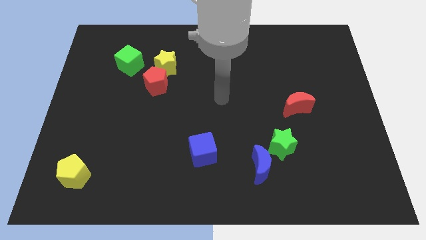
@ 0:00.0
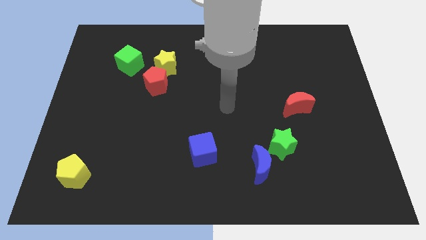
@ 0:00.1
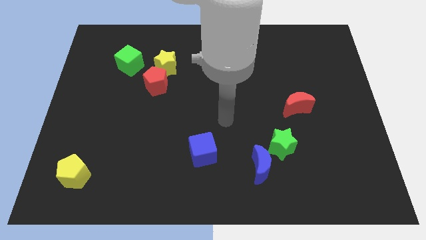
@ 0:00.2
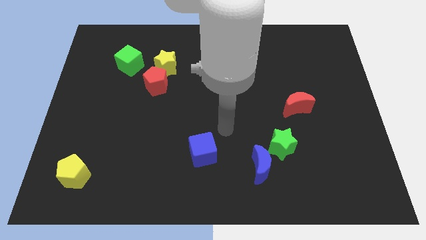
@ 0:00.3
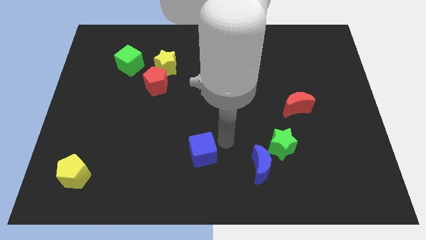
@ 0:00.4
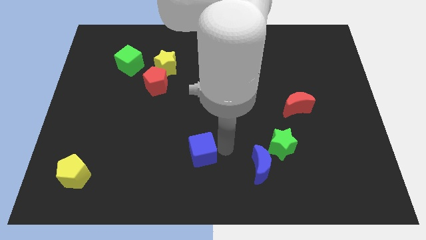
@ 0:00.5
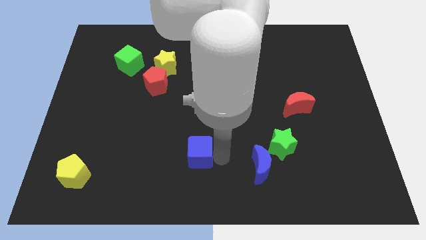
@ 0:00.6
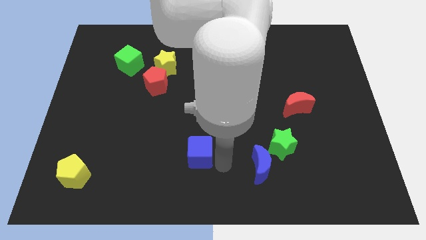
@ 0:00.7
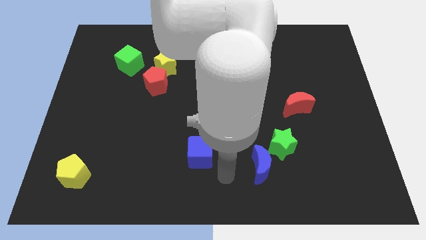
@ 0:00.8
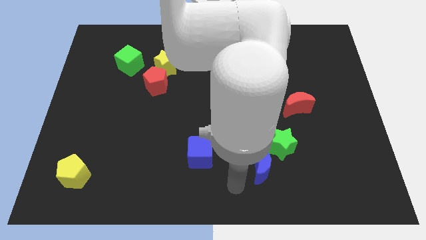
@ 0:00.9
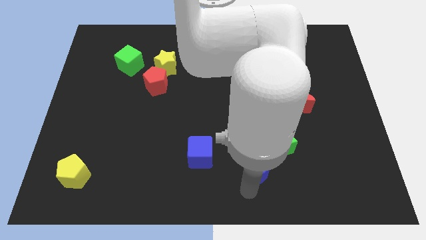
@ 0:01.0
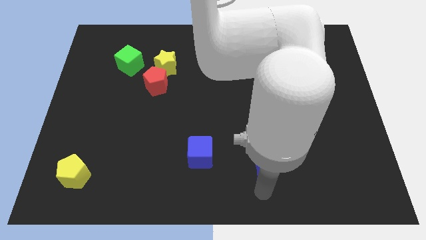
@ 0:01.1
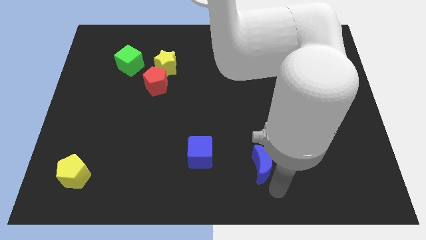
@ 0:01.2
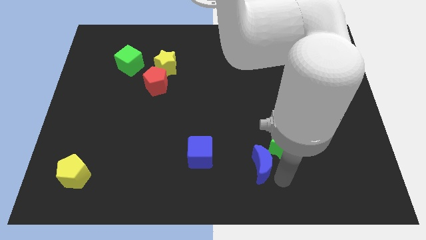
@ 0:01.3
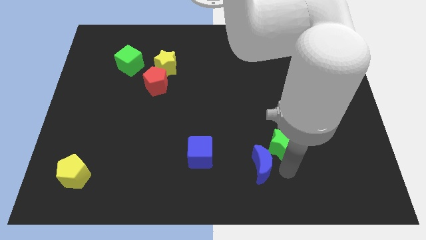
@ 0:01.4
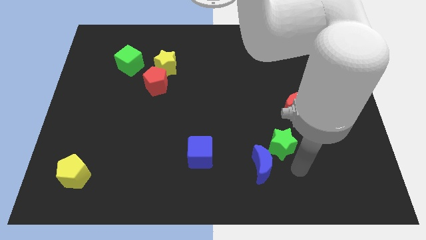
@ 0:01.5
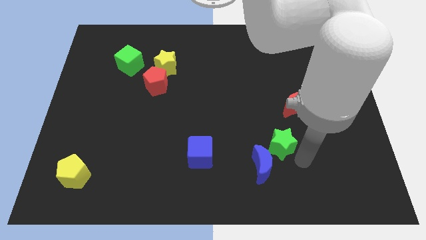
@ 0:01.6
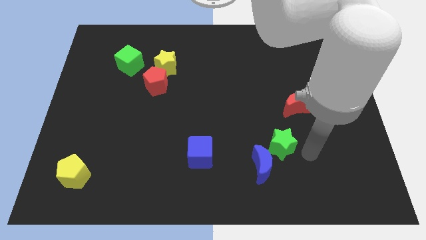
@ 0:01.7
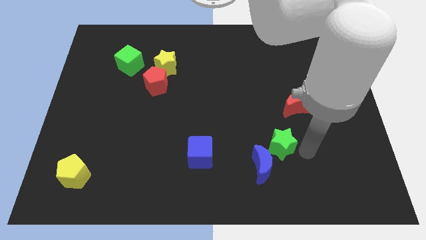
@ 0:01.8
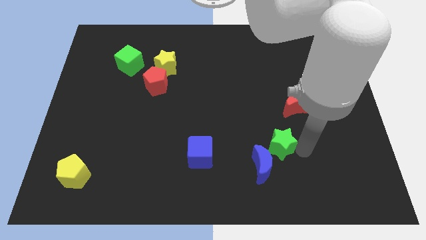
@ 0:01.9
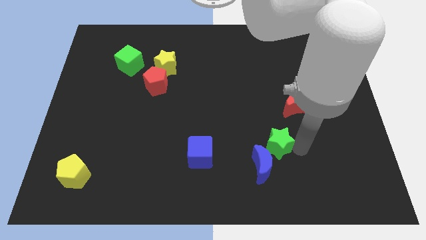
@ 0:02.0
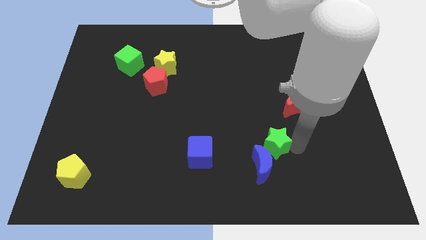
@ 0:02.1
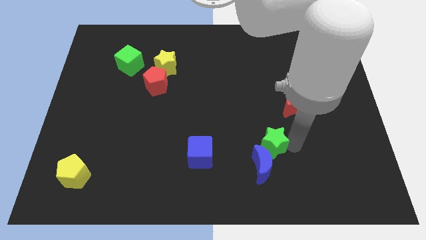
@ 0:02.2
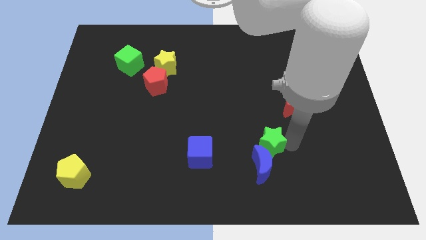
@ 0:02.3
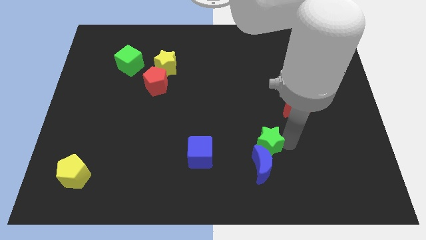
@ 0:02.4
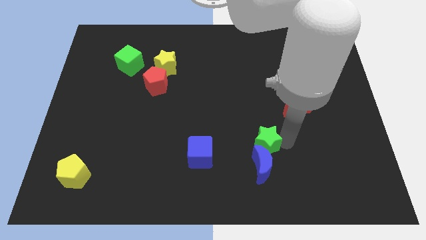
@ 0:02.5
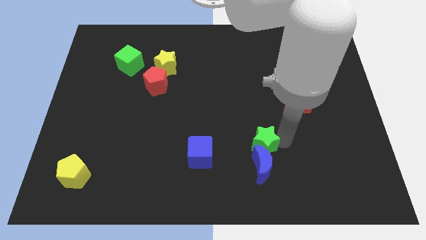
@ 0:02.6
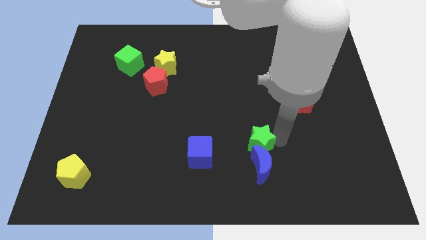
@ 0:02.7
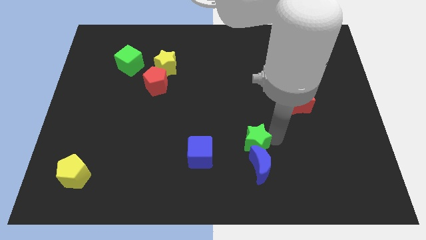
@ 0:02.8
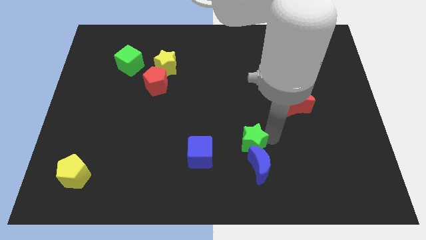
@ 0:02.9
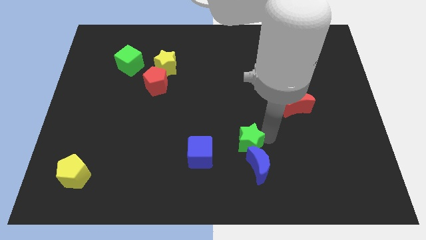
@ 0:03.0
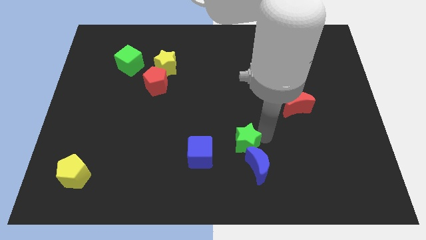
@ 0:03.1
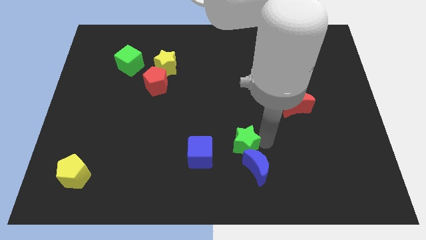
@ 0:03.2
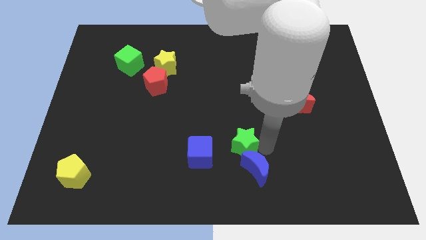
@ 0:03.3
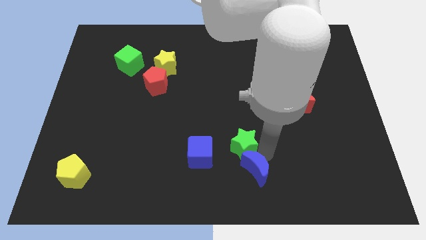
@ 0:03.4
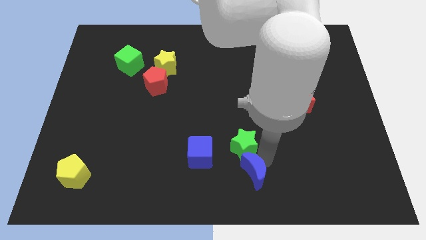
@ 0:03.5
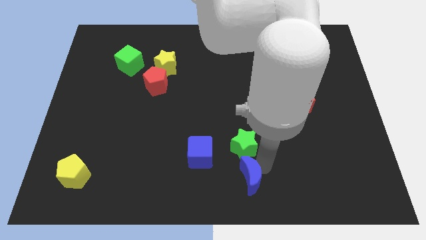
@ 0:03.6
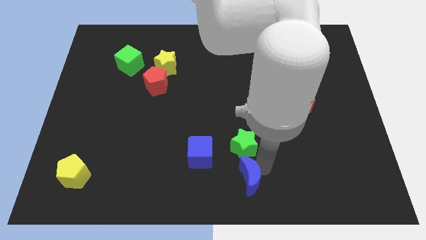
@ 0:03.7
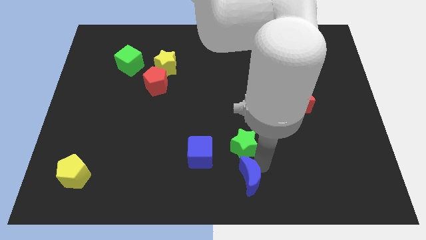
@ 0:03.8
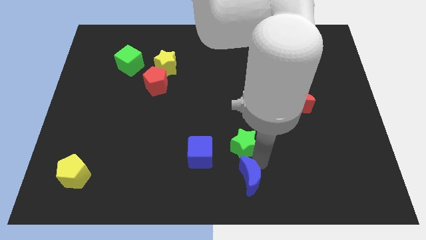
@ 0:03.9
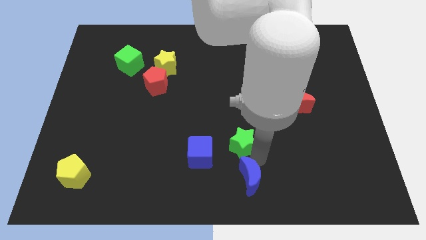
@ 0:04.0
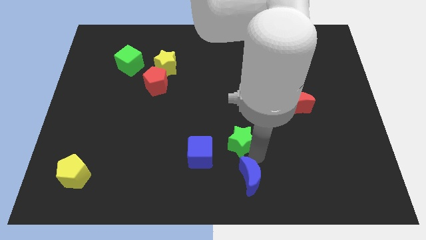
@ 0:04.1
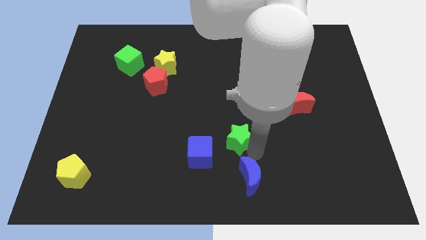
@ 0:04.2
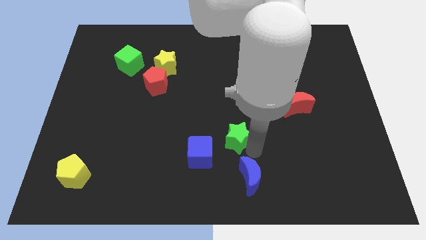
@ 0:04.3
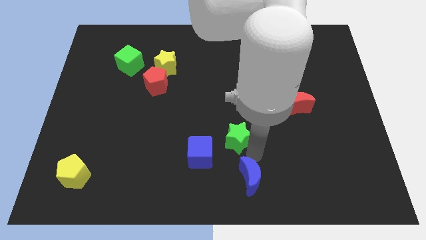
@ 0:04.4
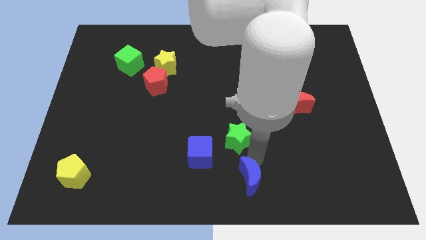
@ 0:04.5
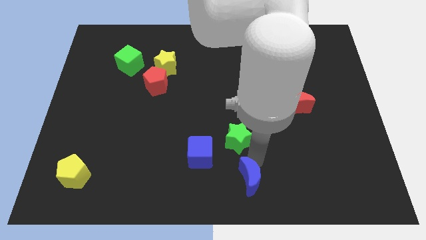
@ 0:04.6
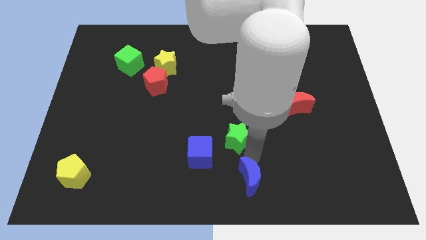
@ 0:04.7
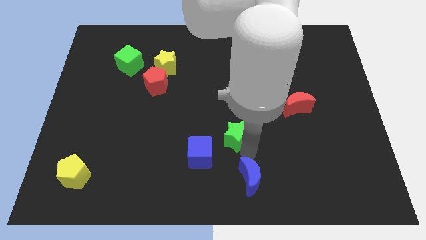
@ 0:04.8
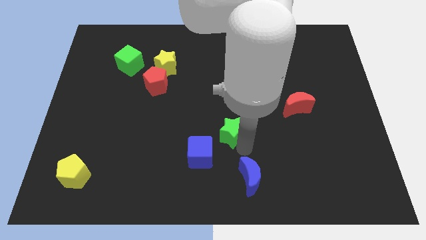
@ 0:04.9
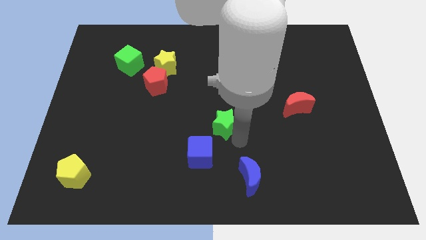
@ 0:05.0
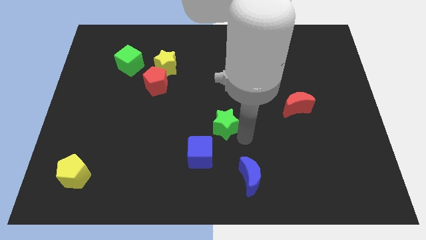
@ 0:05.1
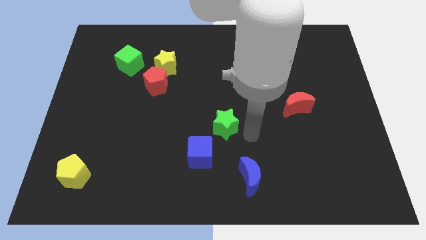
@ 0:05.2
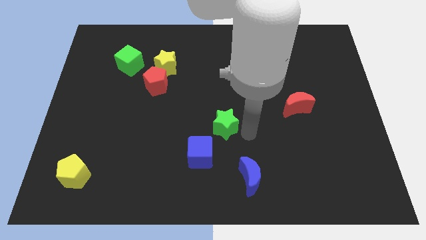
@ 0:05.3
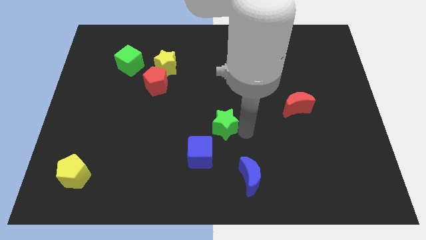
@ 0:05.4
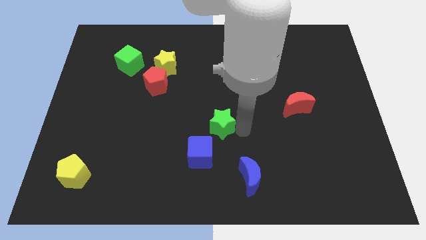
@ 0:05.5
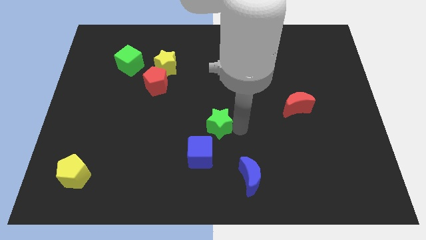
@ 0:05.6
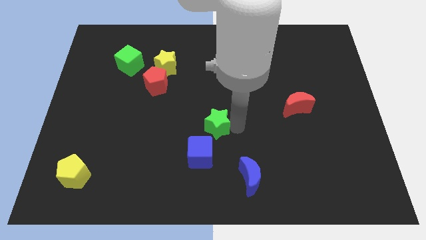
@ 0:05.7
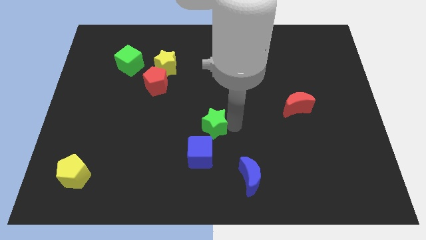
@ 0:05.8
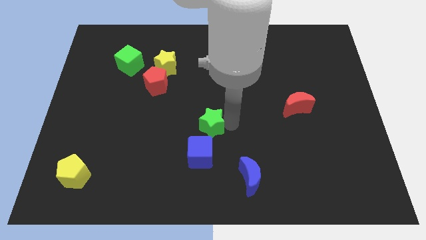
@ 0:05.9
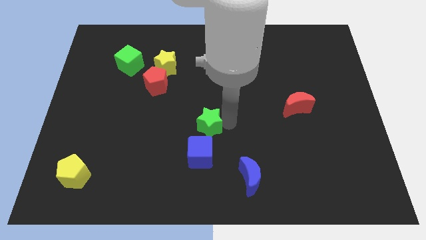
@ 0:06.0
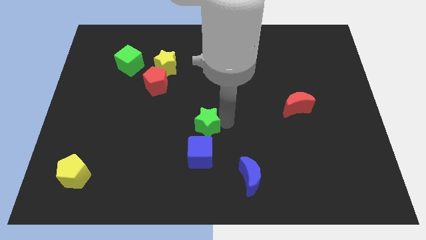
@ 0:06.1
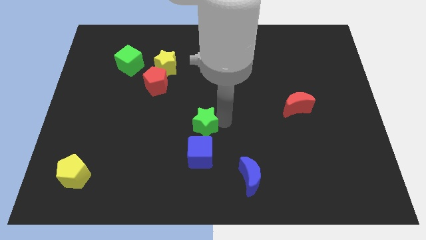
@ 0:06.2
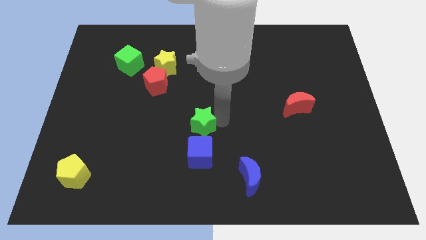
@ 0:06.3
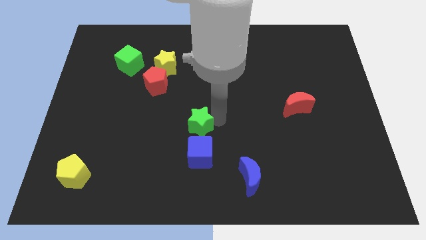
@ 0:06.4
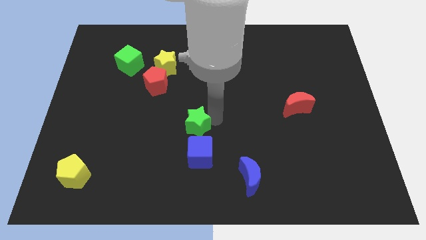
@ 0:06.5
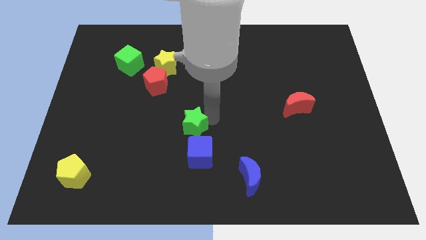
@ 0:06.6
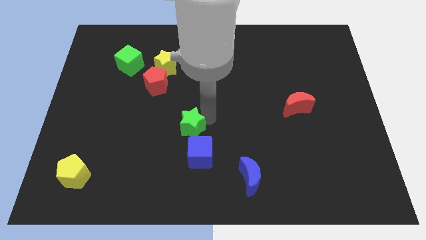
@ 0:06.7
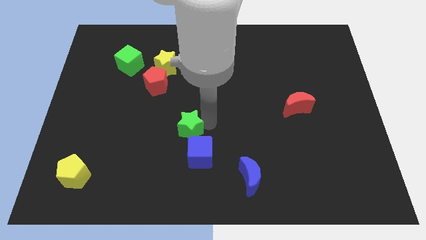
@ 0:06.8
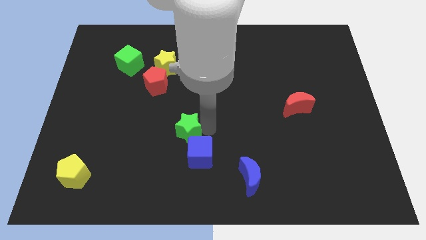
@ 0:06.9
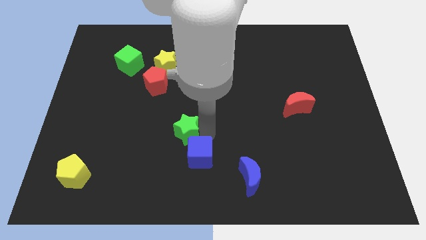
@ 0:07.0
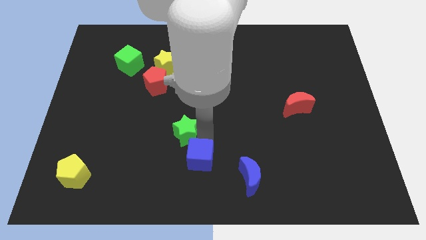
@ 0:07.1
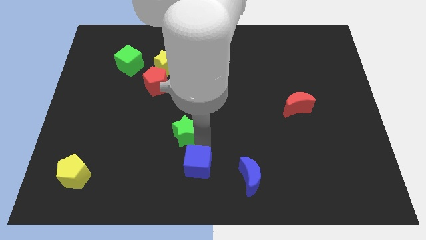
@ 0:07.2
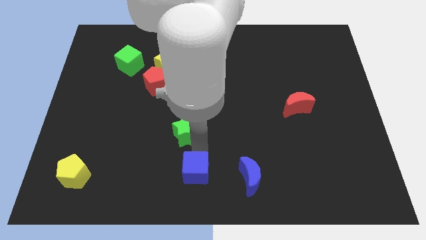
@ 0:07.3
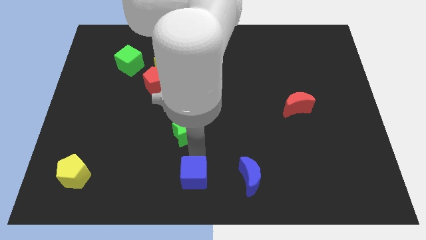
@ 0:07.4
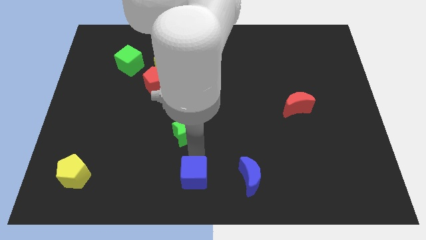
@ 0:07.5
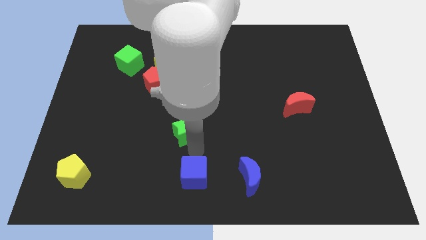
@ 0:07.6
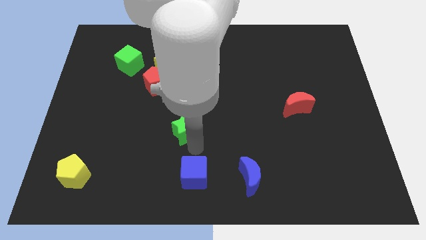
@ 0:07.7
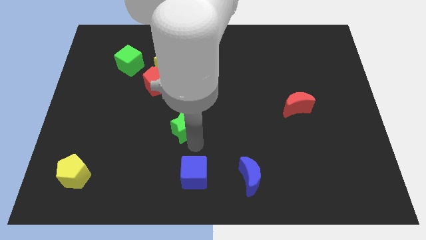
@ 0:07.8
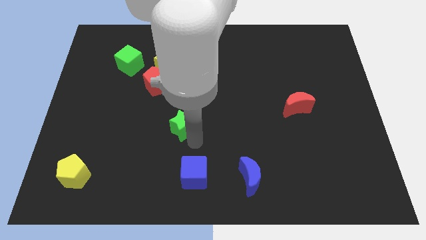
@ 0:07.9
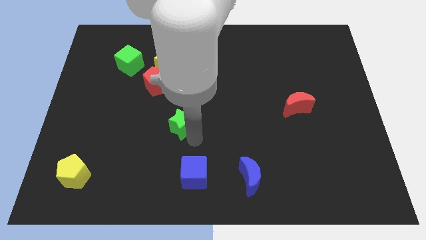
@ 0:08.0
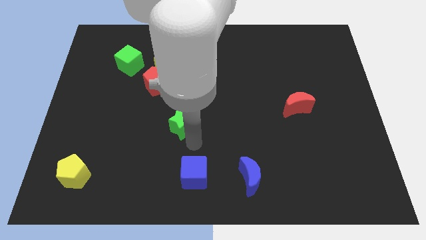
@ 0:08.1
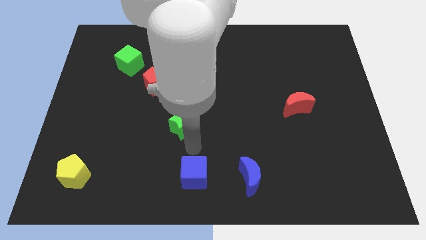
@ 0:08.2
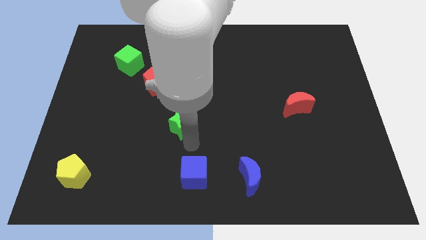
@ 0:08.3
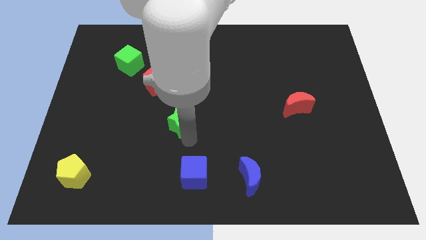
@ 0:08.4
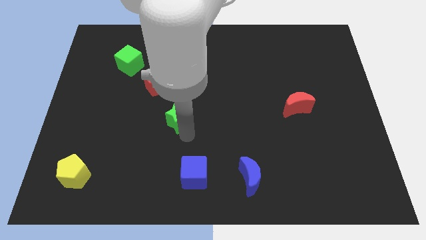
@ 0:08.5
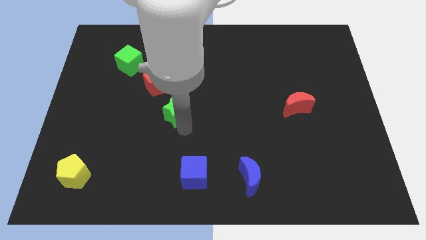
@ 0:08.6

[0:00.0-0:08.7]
push the green star to the bottom of the yellow star
